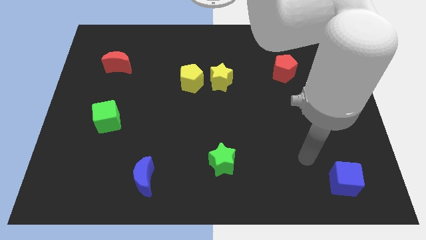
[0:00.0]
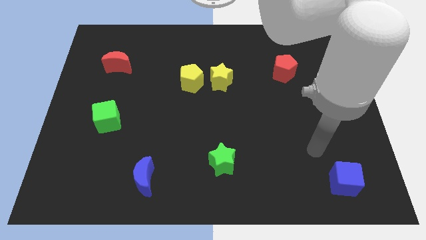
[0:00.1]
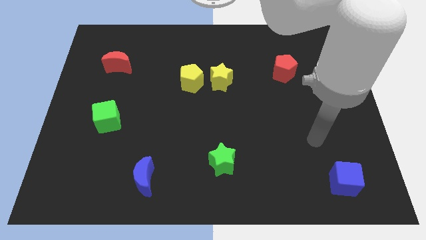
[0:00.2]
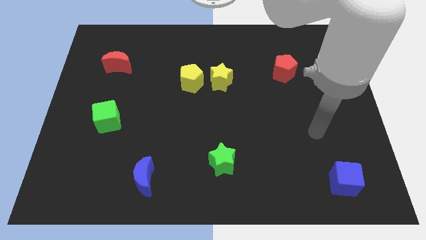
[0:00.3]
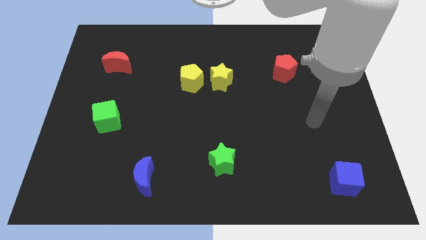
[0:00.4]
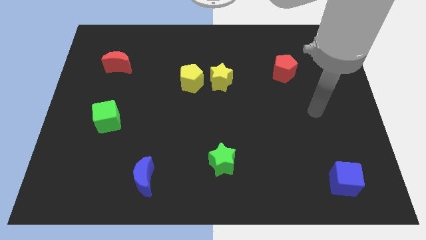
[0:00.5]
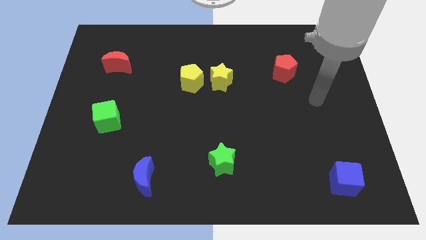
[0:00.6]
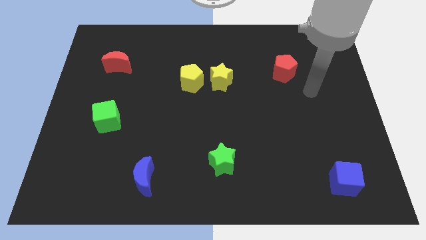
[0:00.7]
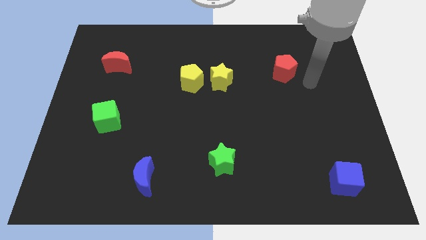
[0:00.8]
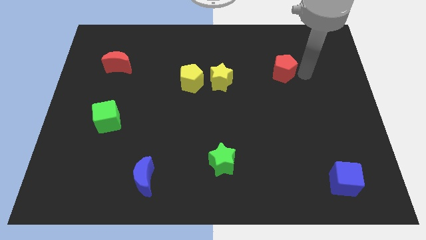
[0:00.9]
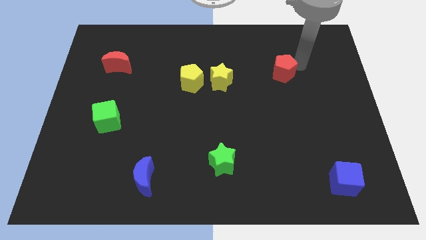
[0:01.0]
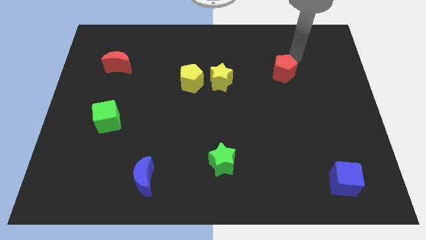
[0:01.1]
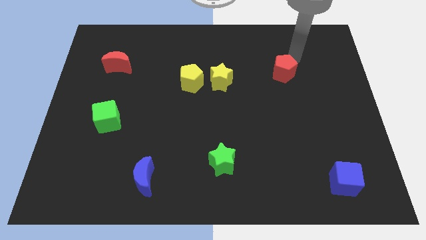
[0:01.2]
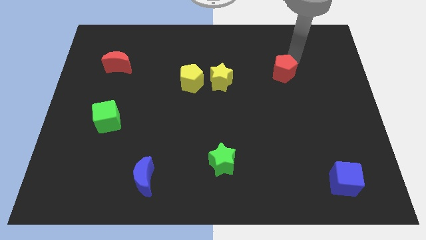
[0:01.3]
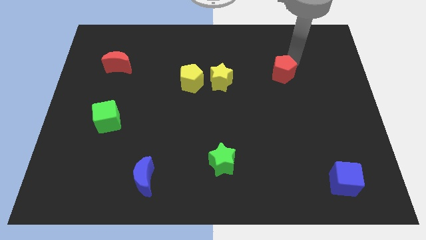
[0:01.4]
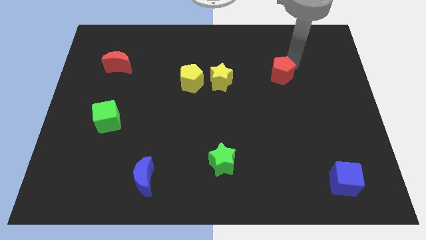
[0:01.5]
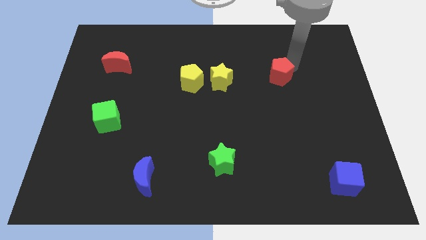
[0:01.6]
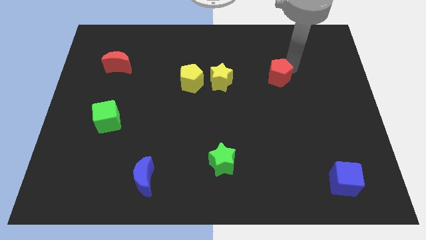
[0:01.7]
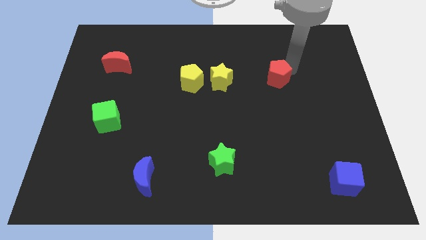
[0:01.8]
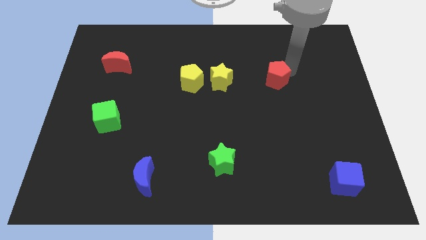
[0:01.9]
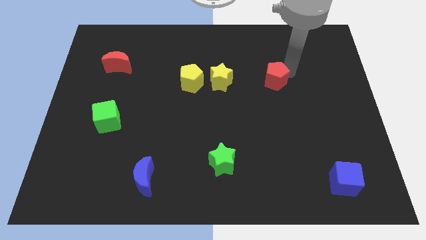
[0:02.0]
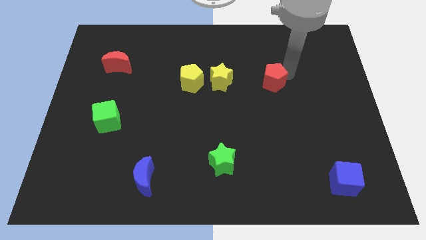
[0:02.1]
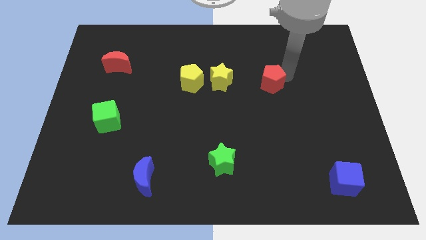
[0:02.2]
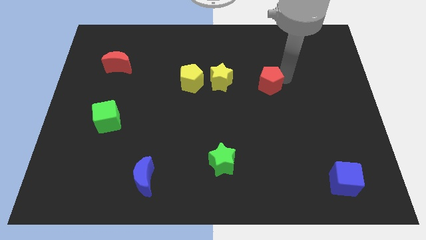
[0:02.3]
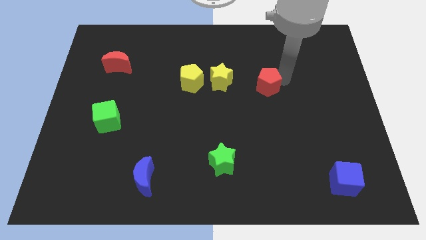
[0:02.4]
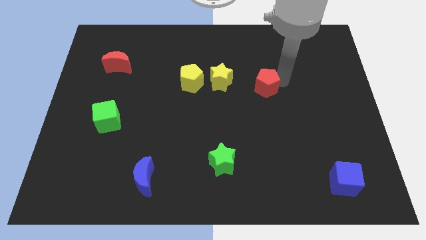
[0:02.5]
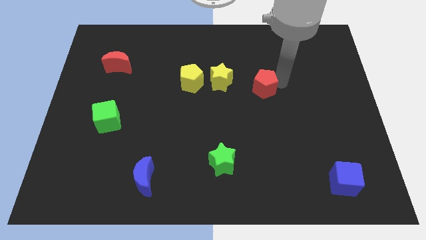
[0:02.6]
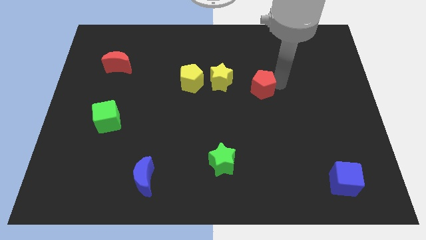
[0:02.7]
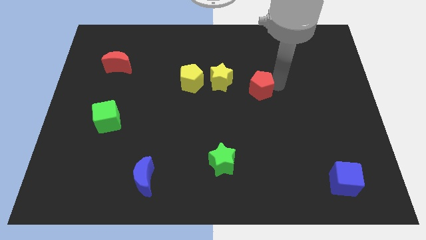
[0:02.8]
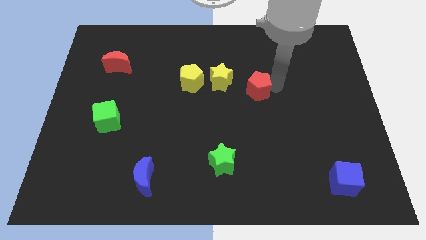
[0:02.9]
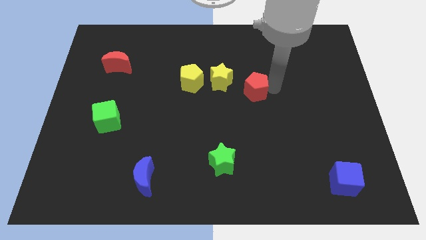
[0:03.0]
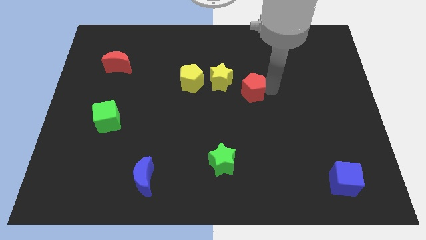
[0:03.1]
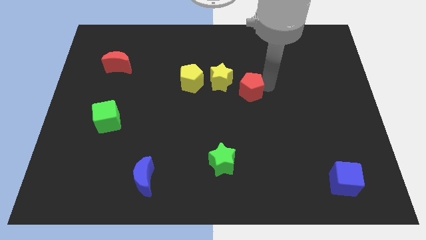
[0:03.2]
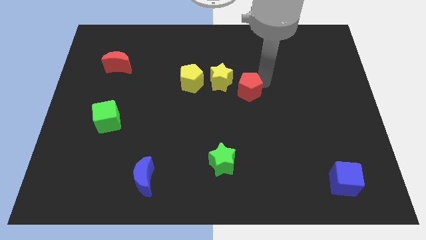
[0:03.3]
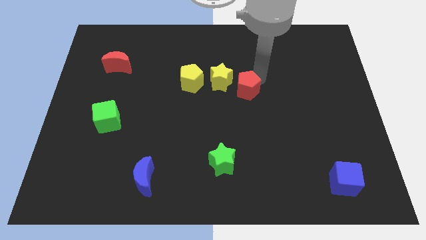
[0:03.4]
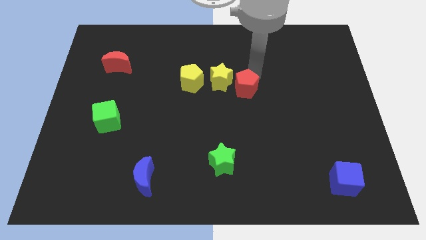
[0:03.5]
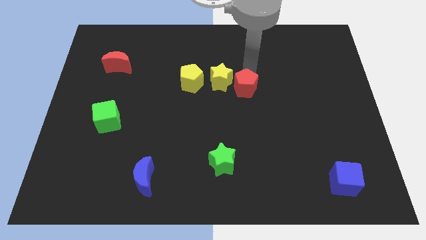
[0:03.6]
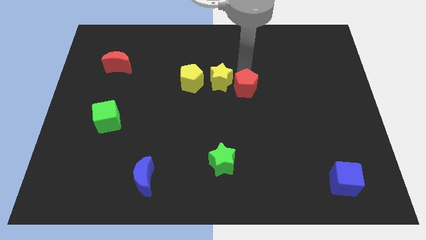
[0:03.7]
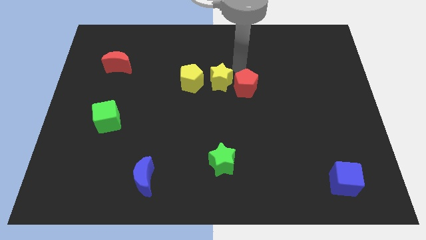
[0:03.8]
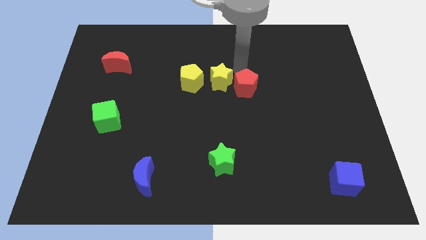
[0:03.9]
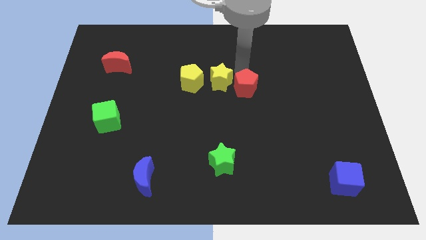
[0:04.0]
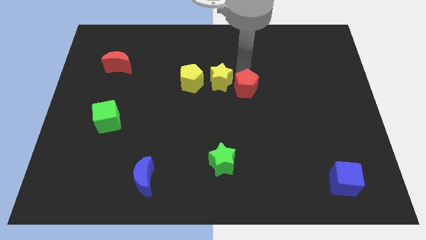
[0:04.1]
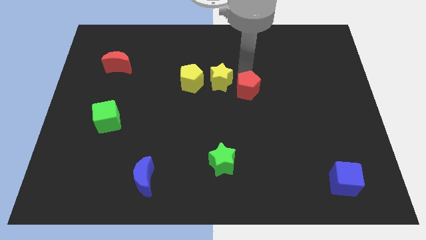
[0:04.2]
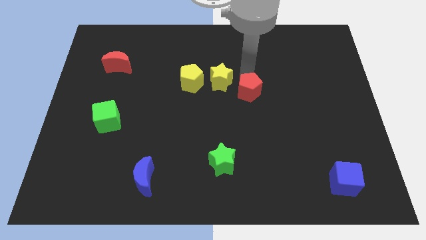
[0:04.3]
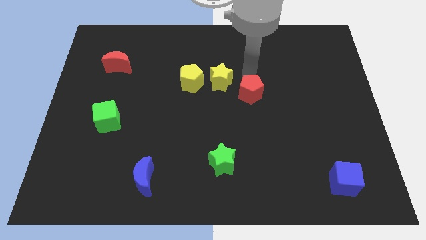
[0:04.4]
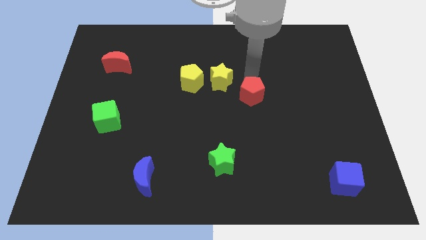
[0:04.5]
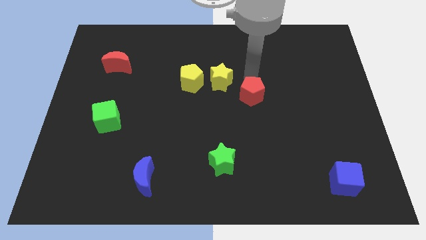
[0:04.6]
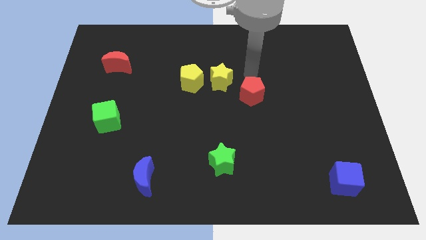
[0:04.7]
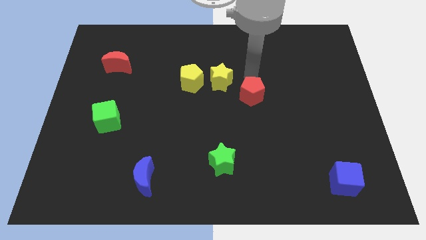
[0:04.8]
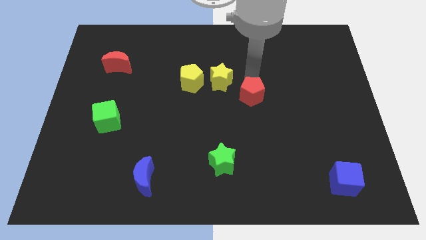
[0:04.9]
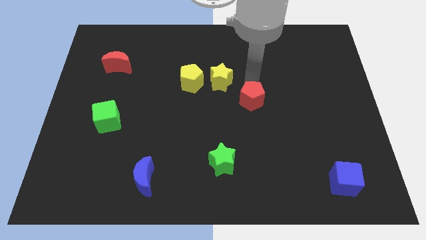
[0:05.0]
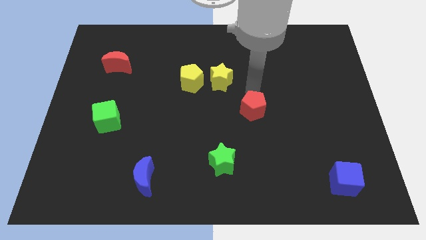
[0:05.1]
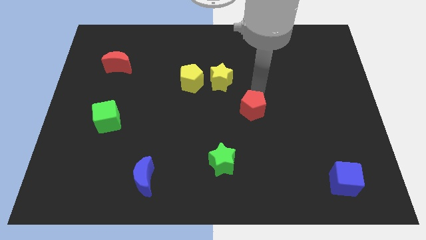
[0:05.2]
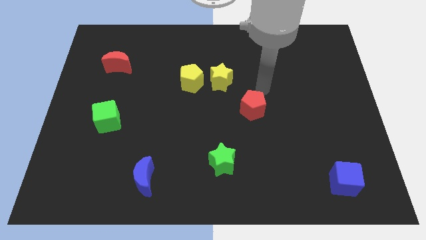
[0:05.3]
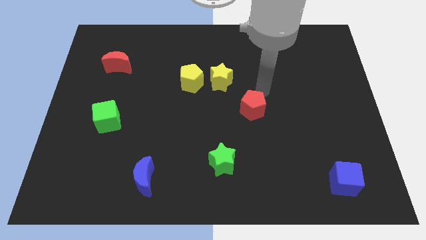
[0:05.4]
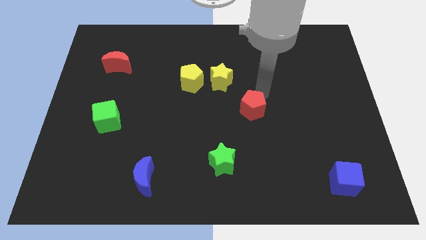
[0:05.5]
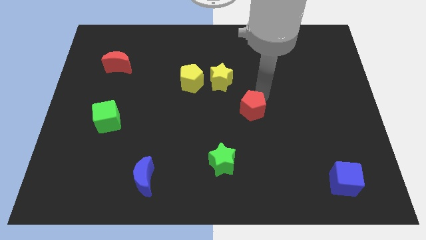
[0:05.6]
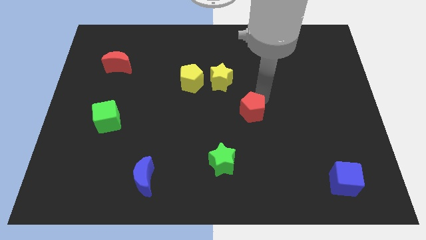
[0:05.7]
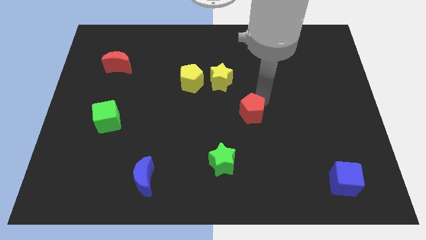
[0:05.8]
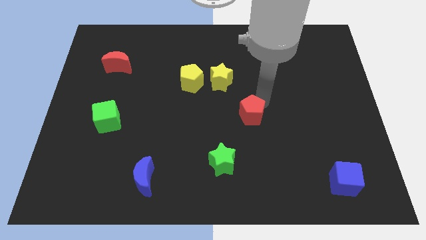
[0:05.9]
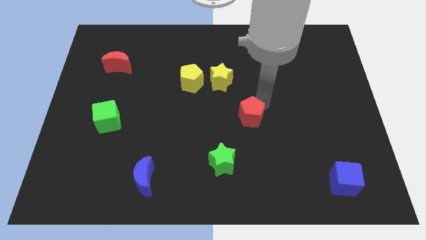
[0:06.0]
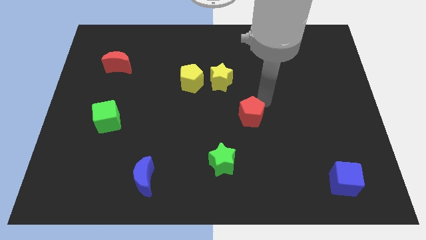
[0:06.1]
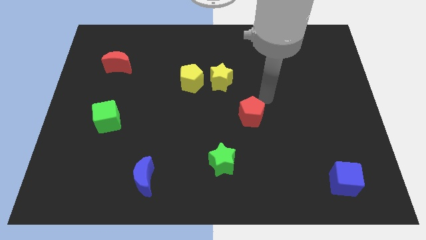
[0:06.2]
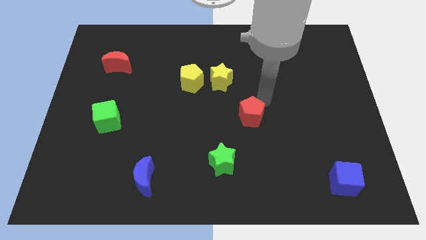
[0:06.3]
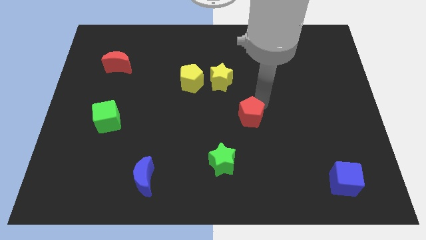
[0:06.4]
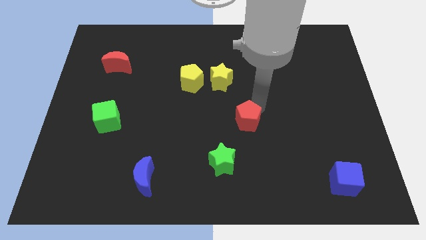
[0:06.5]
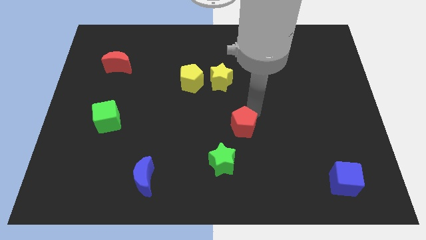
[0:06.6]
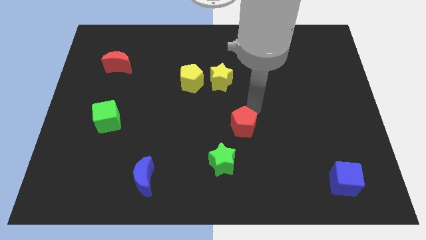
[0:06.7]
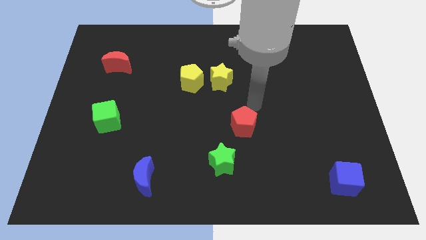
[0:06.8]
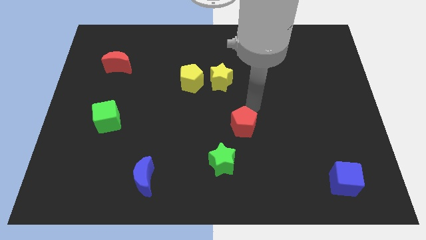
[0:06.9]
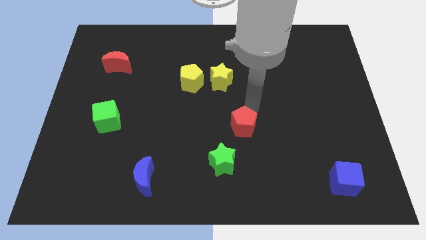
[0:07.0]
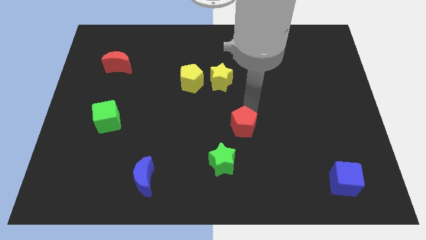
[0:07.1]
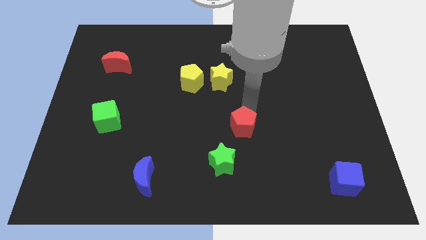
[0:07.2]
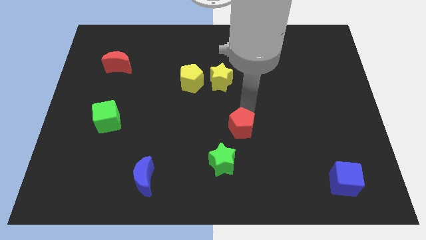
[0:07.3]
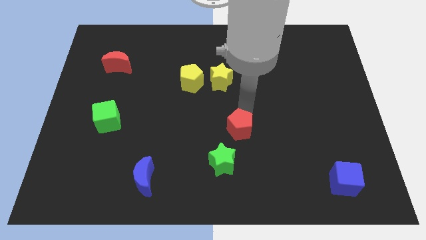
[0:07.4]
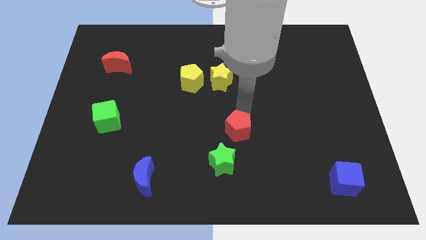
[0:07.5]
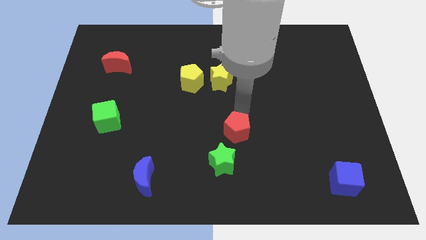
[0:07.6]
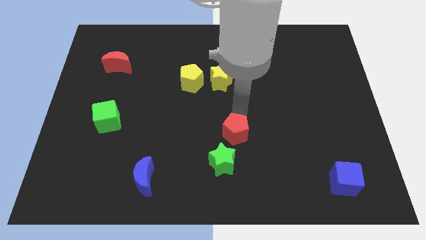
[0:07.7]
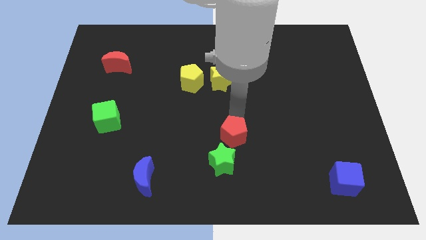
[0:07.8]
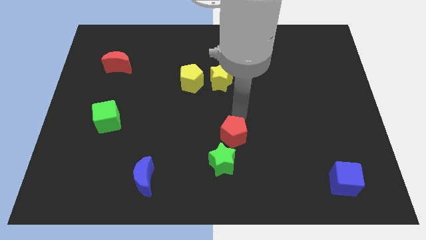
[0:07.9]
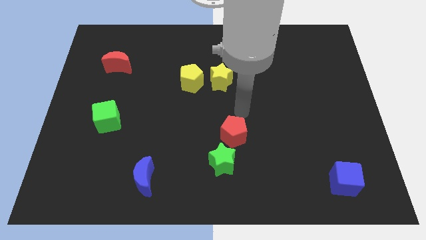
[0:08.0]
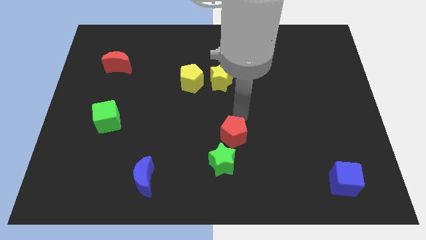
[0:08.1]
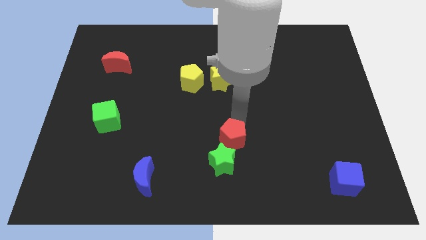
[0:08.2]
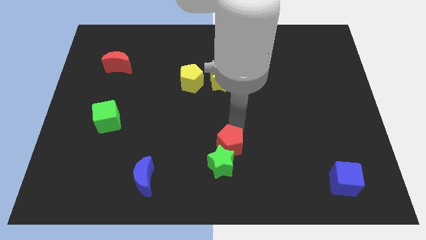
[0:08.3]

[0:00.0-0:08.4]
push the red pentagon next to the green star
